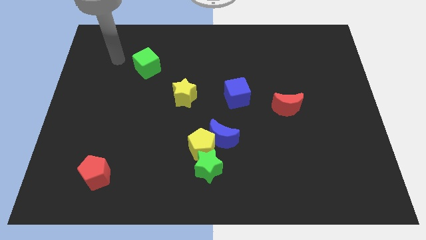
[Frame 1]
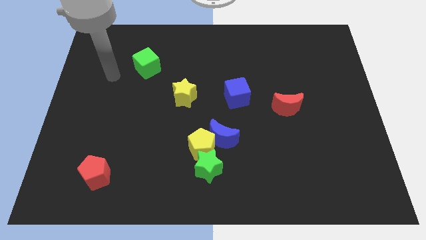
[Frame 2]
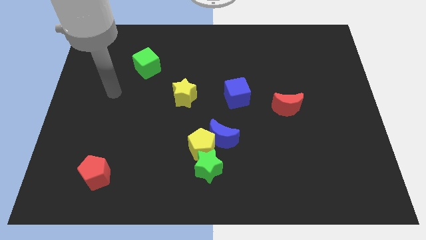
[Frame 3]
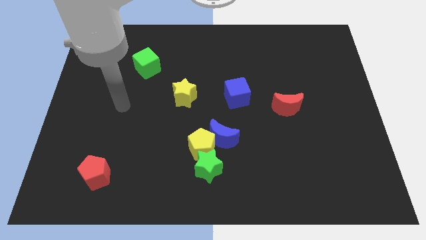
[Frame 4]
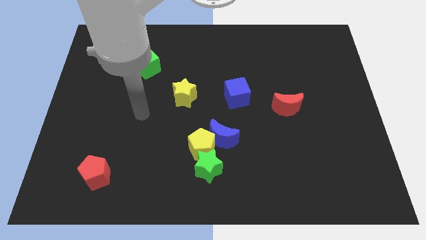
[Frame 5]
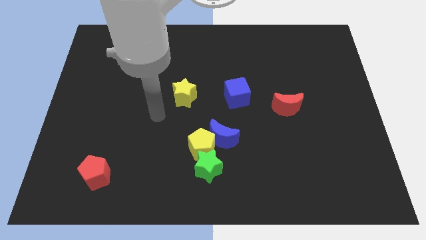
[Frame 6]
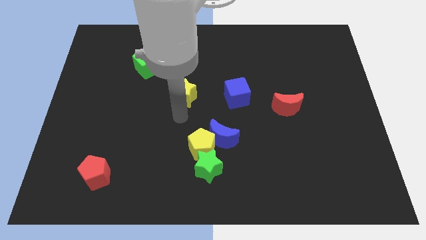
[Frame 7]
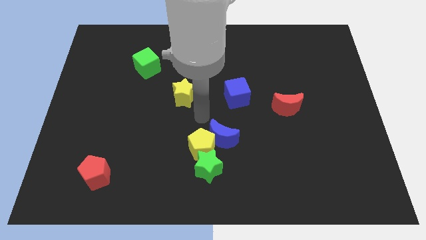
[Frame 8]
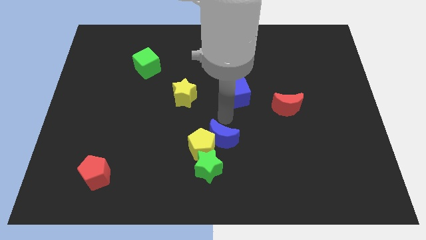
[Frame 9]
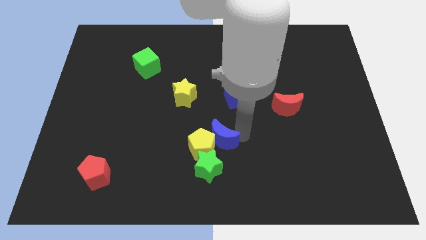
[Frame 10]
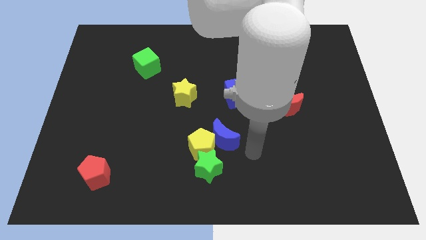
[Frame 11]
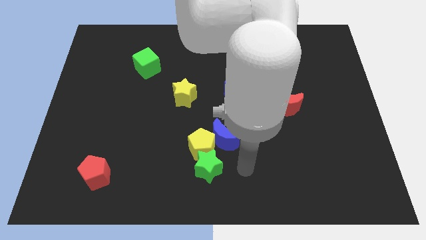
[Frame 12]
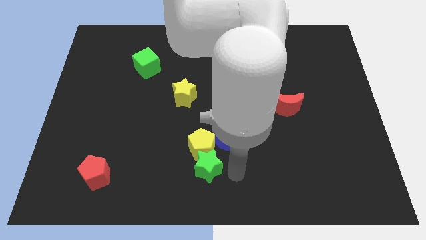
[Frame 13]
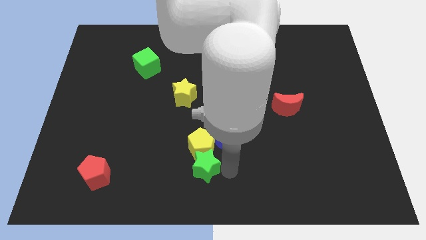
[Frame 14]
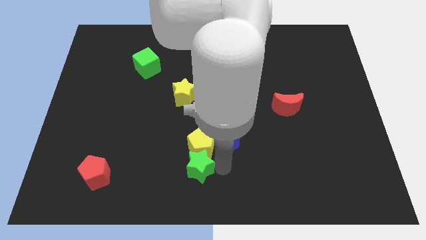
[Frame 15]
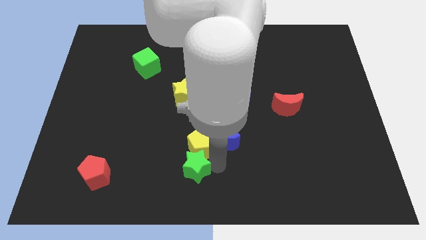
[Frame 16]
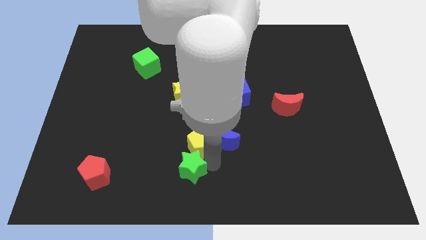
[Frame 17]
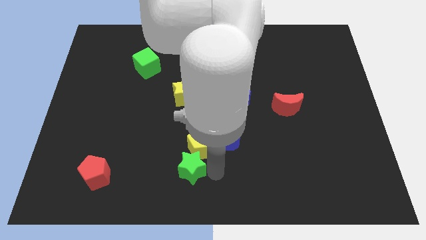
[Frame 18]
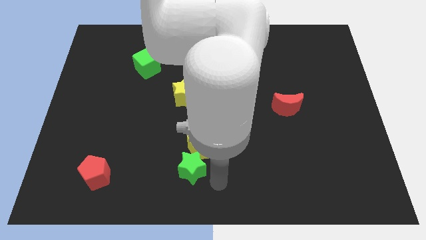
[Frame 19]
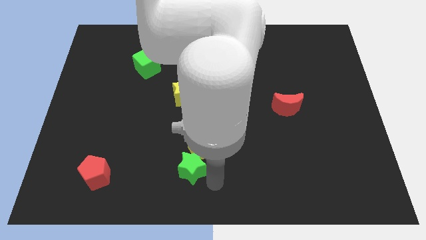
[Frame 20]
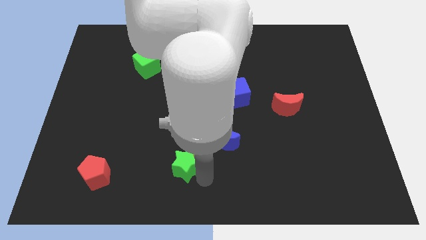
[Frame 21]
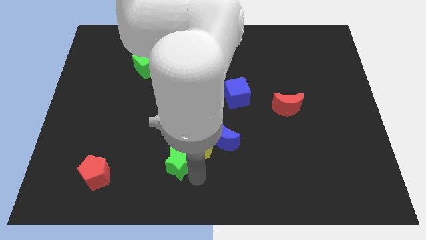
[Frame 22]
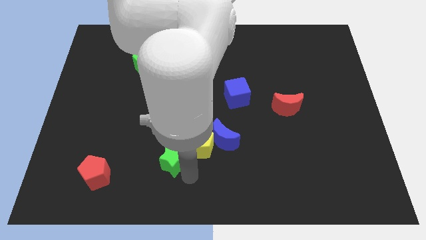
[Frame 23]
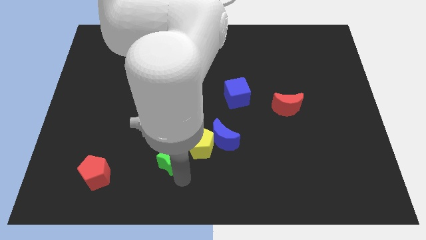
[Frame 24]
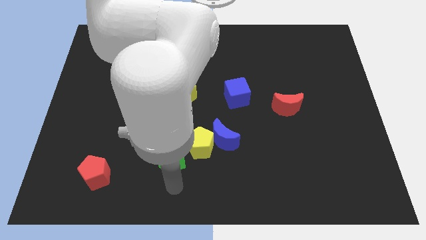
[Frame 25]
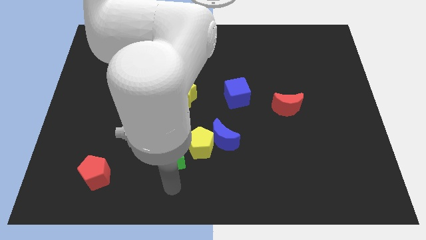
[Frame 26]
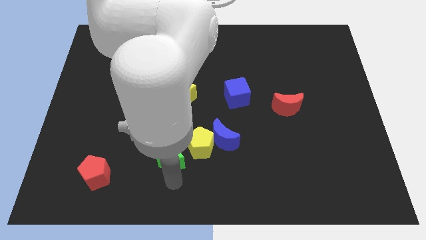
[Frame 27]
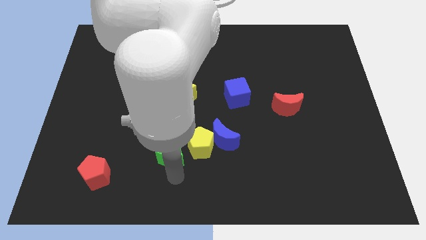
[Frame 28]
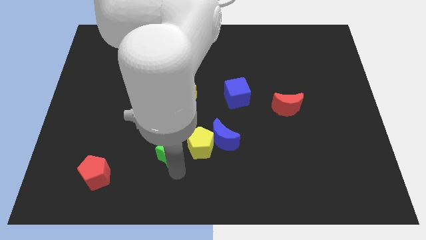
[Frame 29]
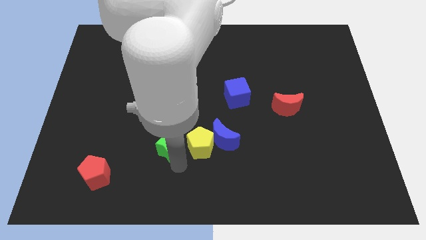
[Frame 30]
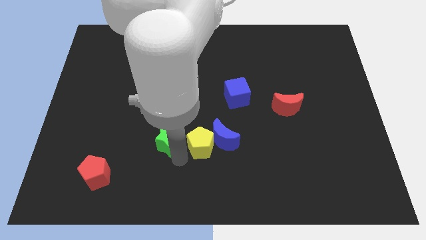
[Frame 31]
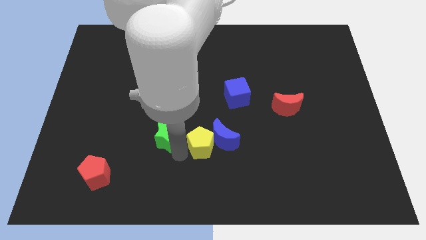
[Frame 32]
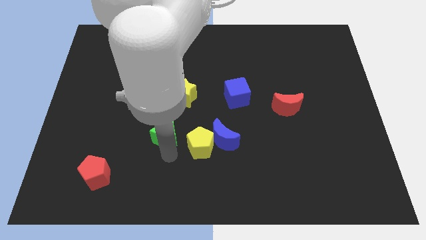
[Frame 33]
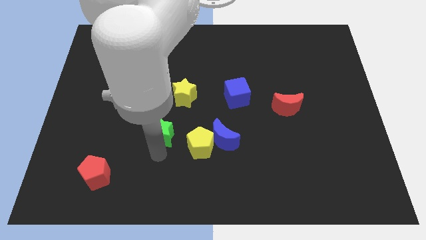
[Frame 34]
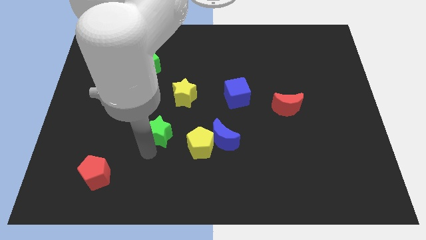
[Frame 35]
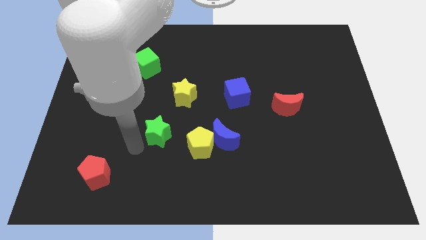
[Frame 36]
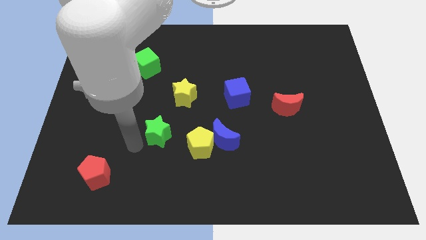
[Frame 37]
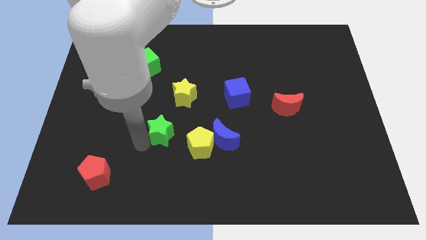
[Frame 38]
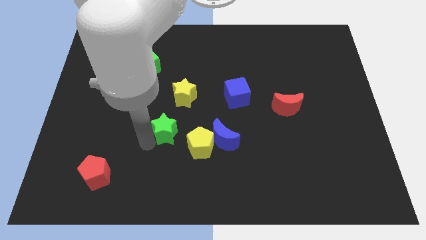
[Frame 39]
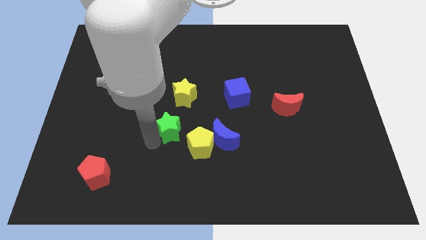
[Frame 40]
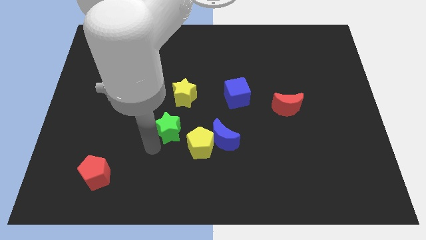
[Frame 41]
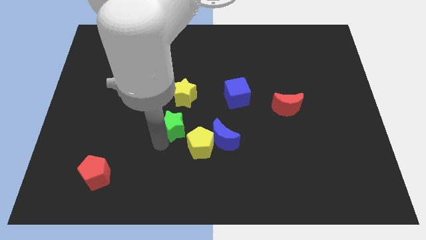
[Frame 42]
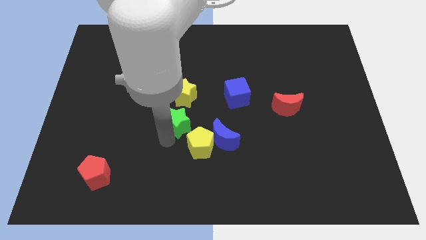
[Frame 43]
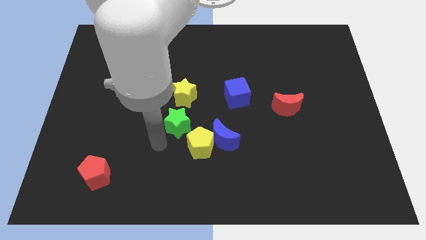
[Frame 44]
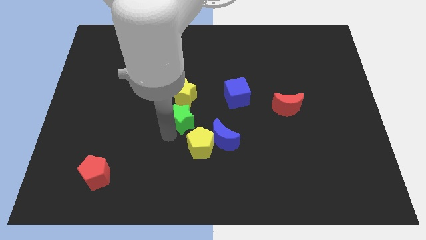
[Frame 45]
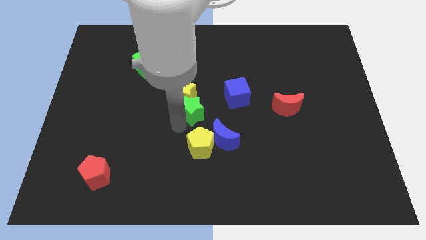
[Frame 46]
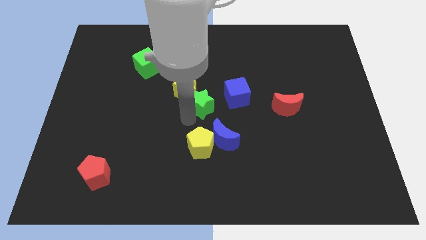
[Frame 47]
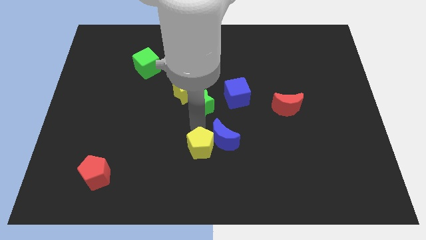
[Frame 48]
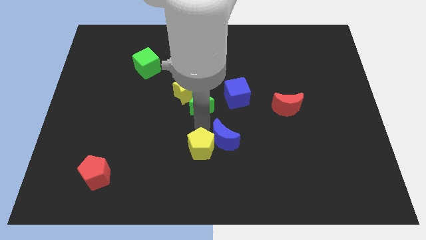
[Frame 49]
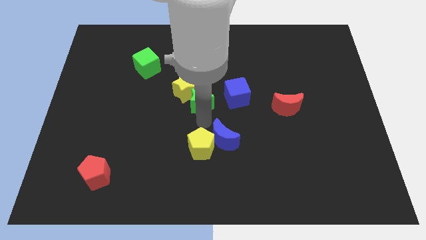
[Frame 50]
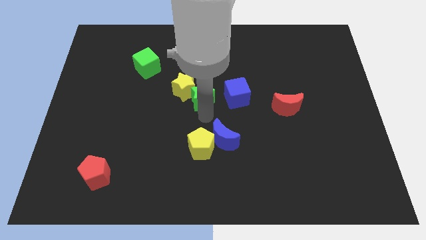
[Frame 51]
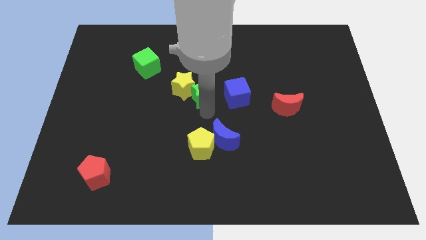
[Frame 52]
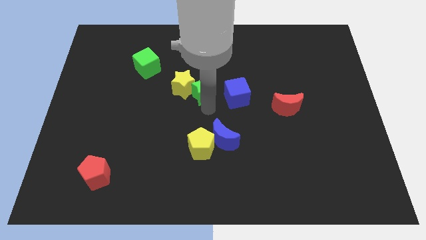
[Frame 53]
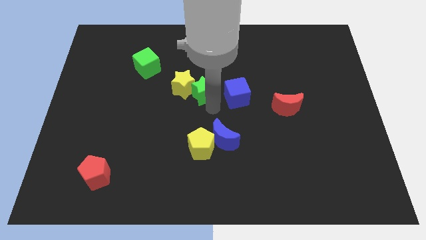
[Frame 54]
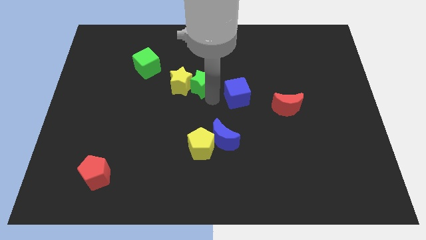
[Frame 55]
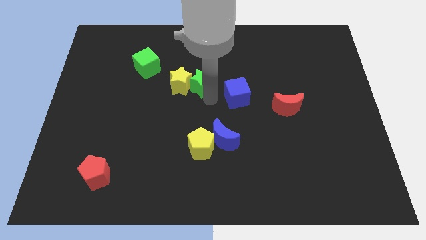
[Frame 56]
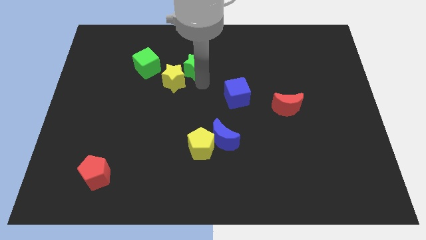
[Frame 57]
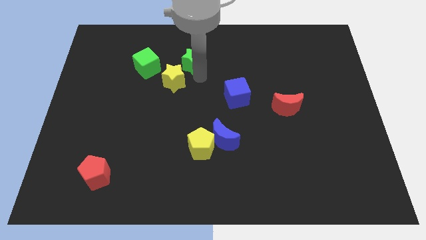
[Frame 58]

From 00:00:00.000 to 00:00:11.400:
push the green star to the top side of the yellow star

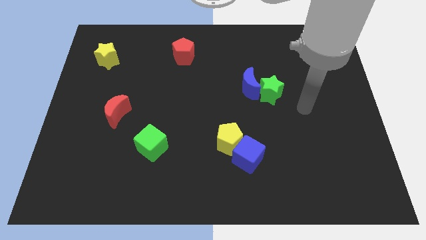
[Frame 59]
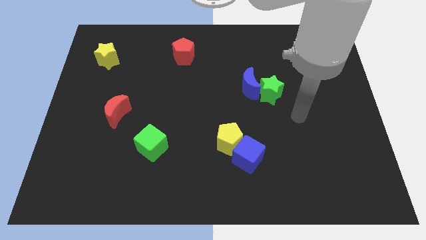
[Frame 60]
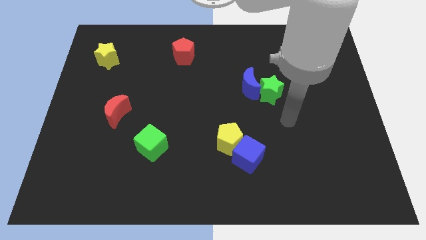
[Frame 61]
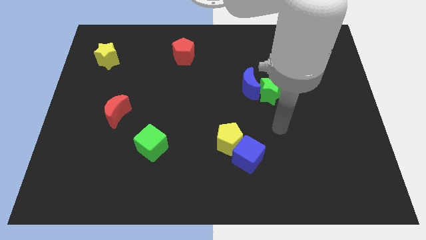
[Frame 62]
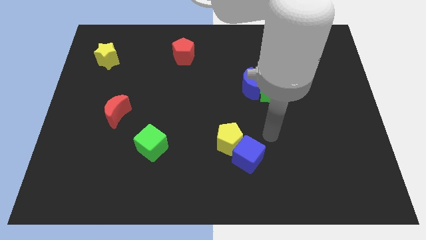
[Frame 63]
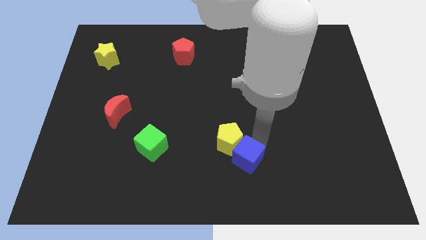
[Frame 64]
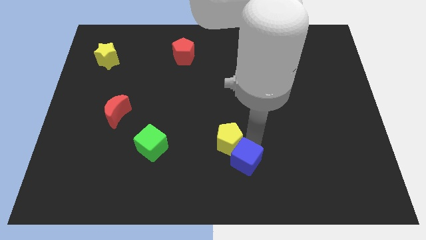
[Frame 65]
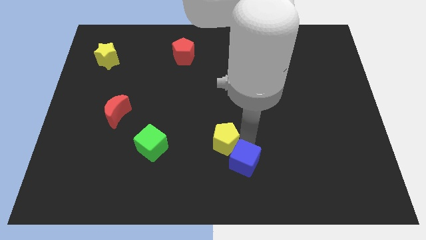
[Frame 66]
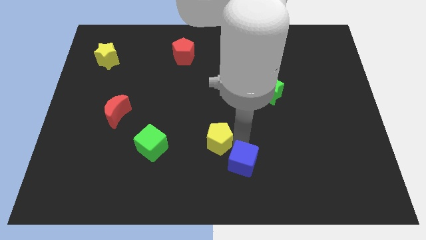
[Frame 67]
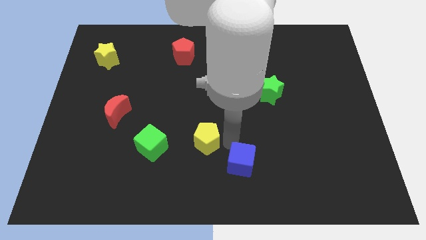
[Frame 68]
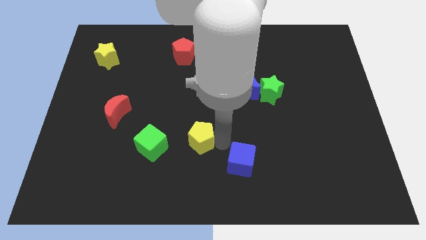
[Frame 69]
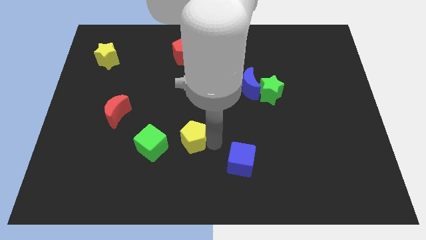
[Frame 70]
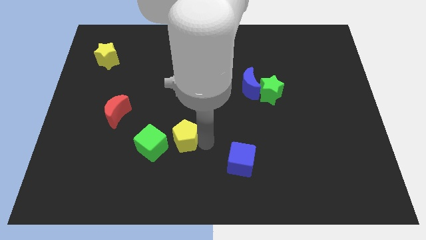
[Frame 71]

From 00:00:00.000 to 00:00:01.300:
move the yellow pentagon to the top right side of the green cube
